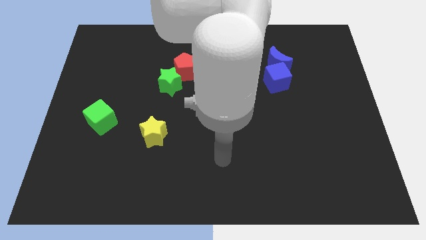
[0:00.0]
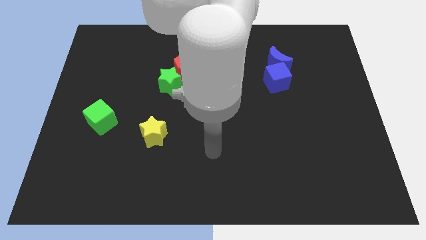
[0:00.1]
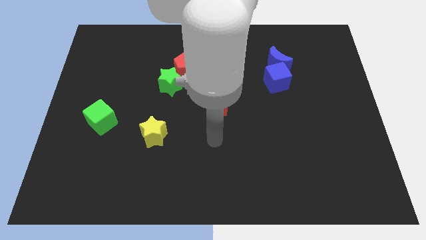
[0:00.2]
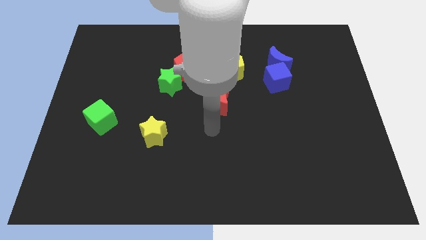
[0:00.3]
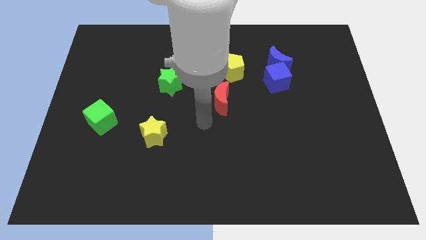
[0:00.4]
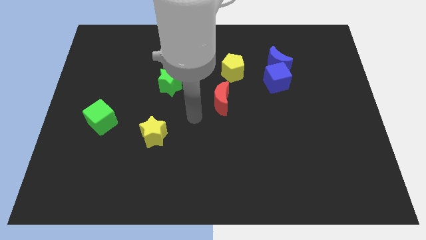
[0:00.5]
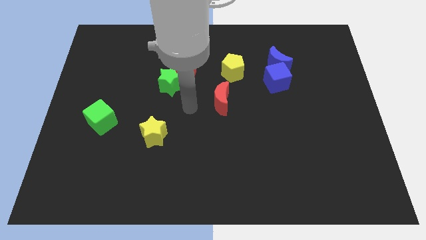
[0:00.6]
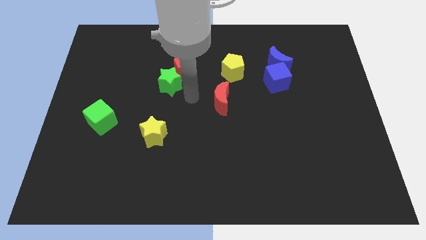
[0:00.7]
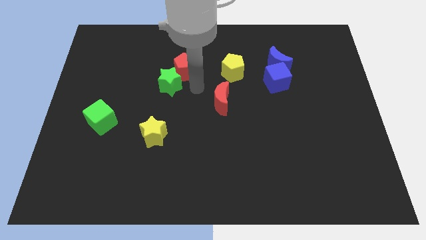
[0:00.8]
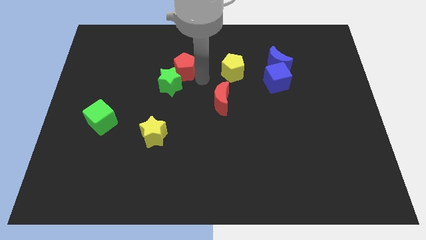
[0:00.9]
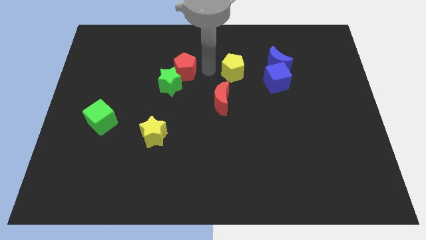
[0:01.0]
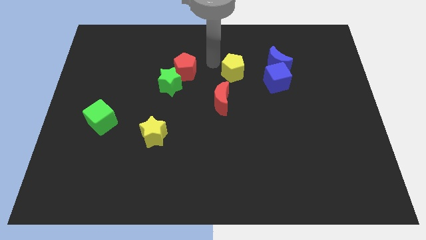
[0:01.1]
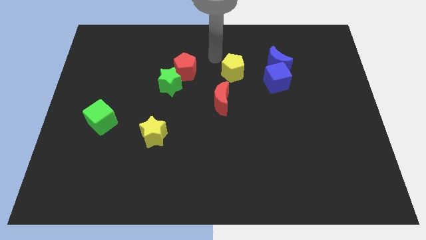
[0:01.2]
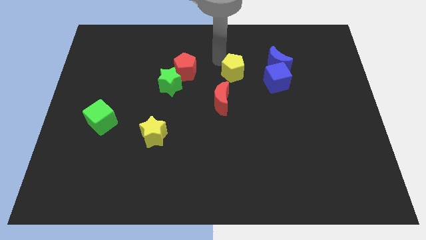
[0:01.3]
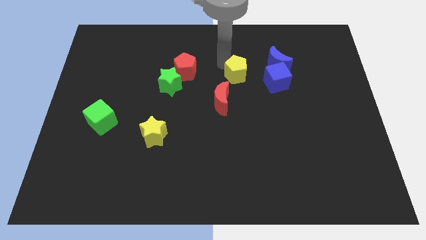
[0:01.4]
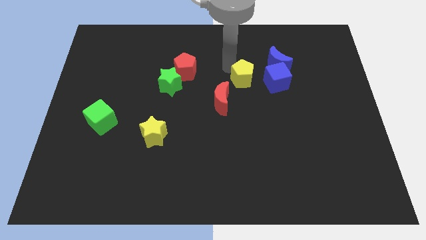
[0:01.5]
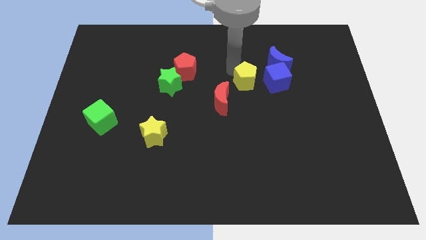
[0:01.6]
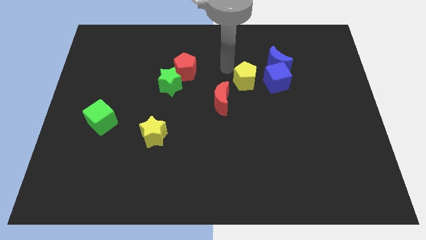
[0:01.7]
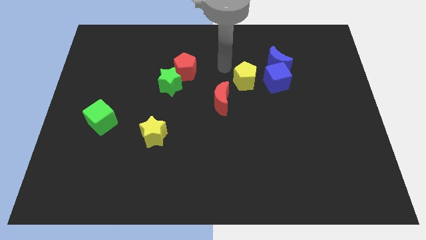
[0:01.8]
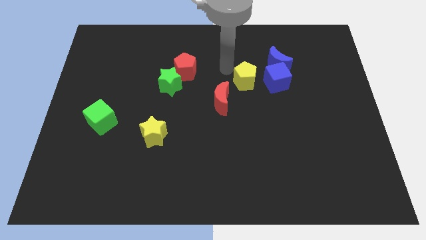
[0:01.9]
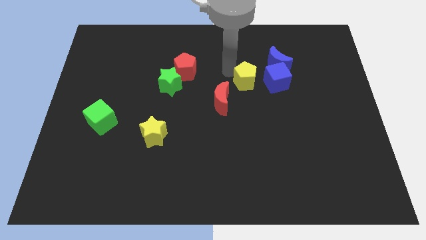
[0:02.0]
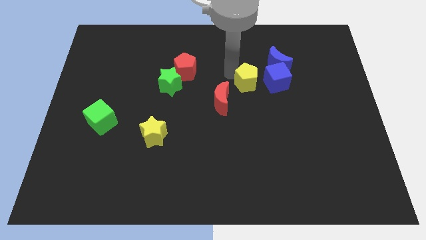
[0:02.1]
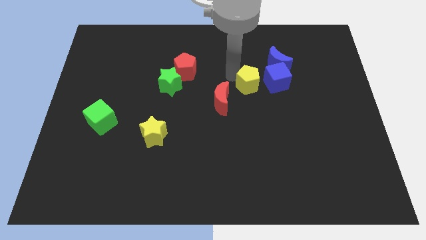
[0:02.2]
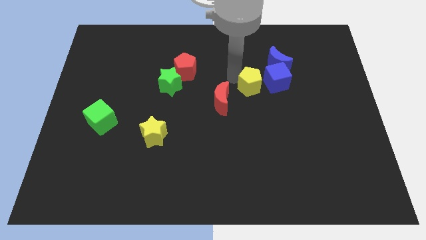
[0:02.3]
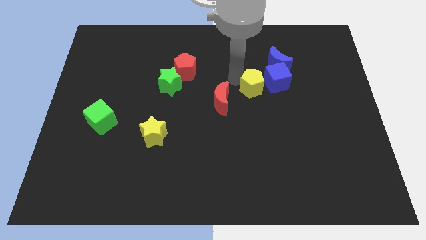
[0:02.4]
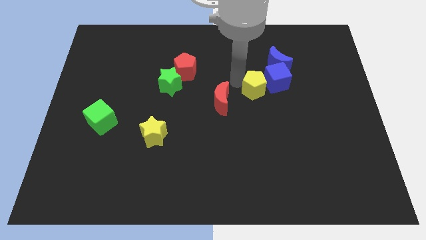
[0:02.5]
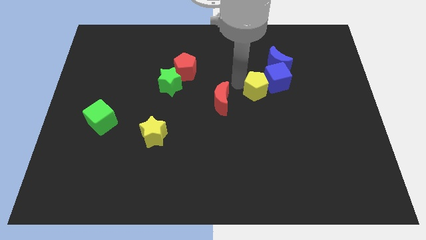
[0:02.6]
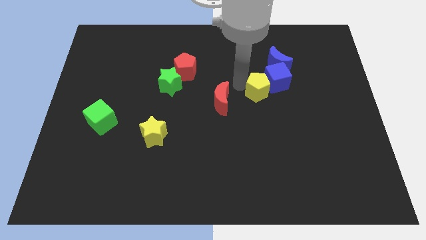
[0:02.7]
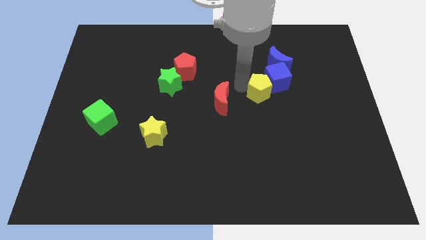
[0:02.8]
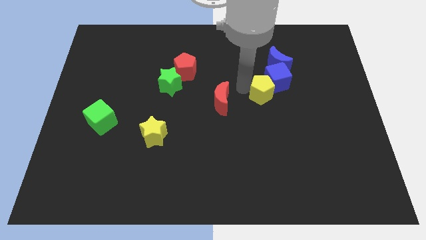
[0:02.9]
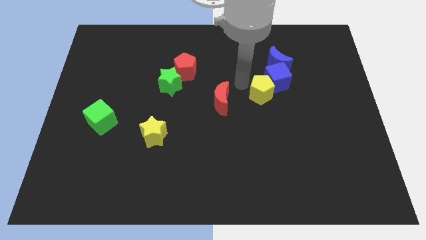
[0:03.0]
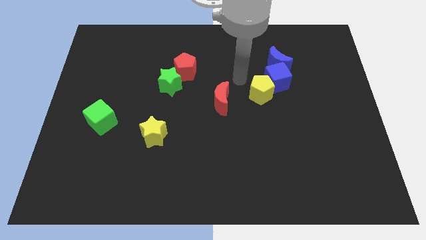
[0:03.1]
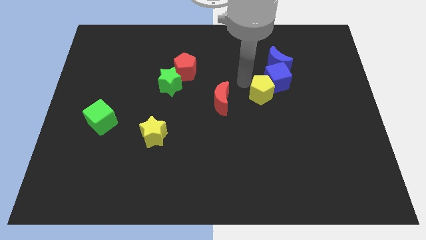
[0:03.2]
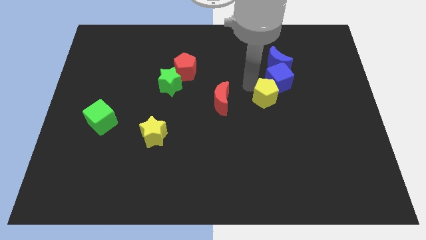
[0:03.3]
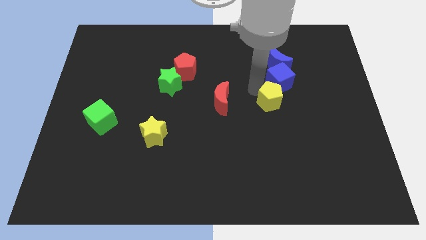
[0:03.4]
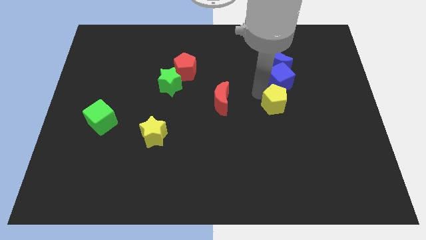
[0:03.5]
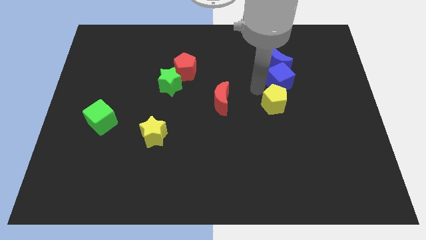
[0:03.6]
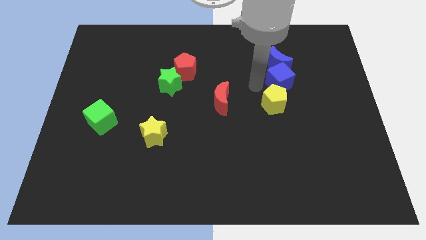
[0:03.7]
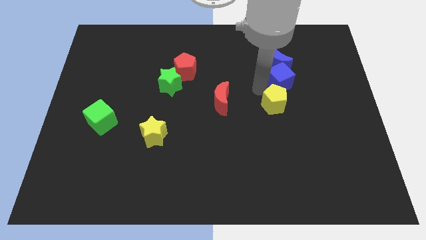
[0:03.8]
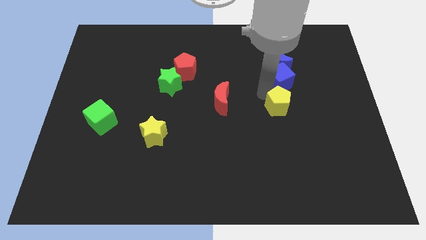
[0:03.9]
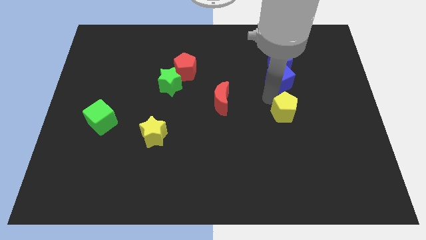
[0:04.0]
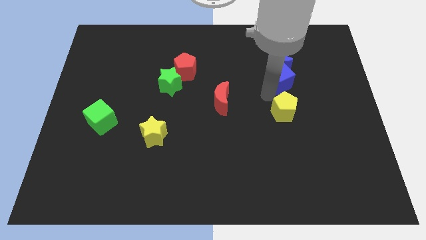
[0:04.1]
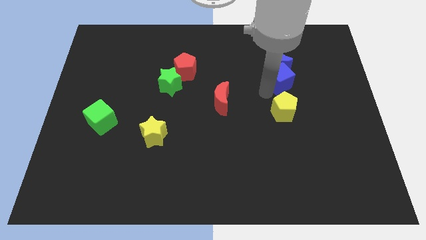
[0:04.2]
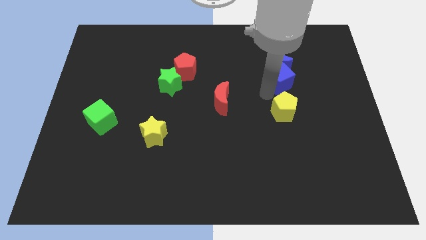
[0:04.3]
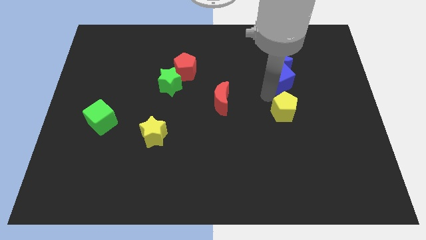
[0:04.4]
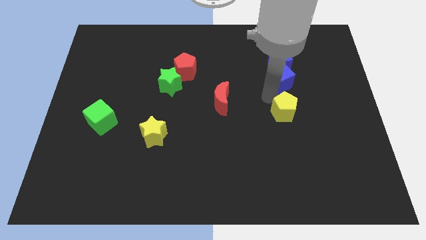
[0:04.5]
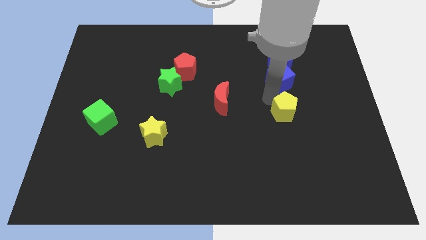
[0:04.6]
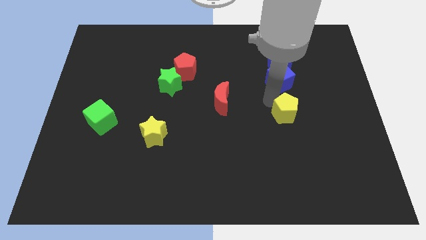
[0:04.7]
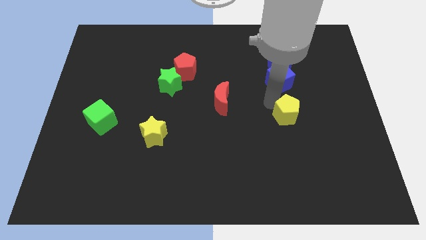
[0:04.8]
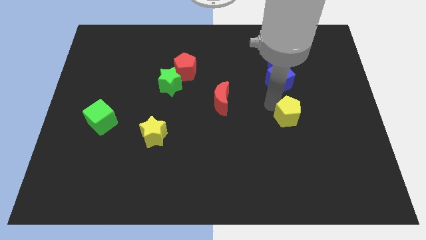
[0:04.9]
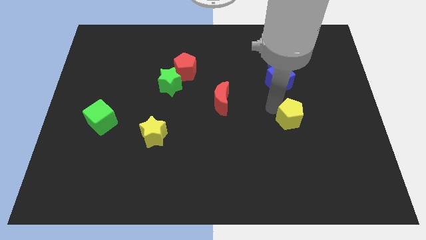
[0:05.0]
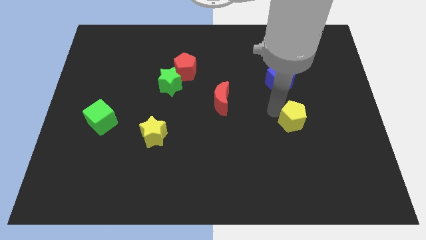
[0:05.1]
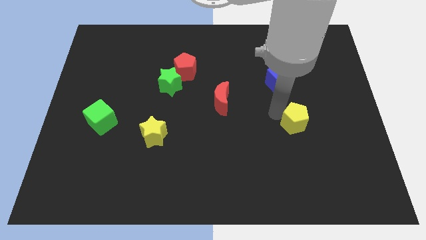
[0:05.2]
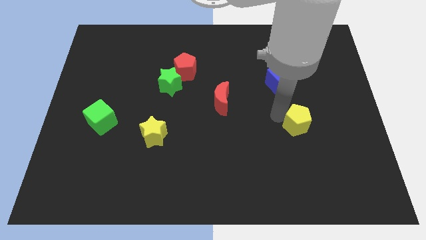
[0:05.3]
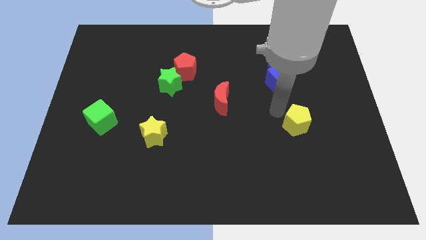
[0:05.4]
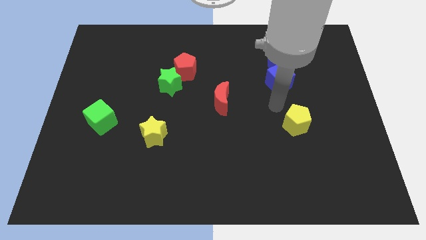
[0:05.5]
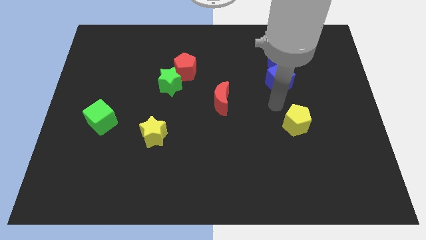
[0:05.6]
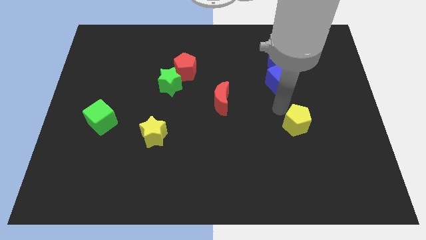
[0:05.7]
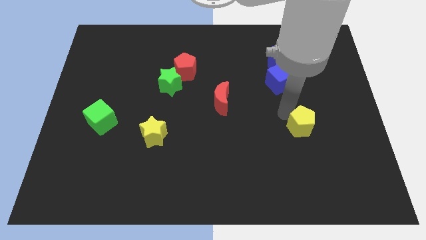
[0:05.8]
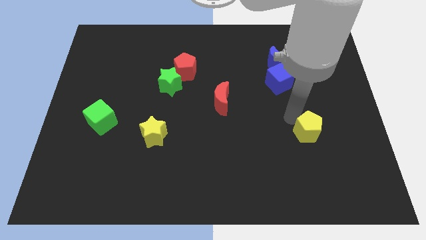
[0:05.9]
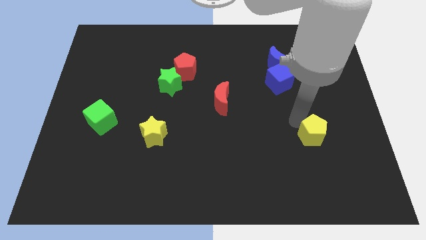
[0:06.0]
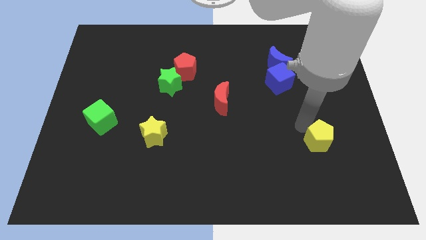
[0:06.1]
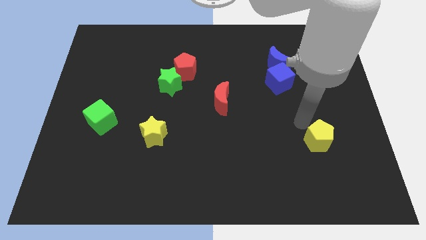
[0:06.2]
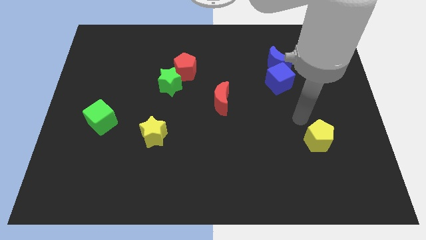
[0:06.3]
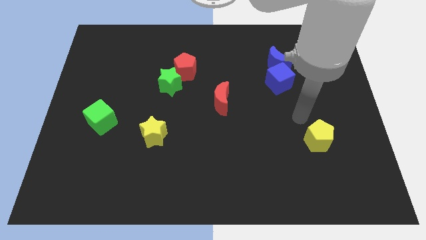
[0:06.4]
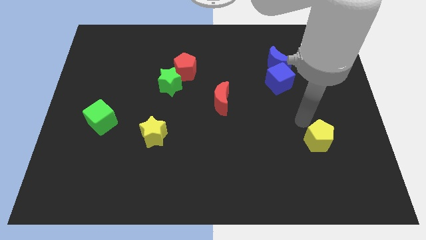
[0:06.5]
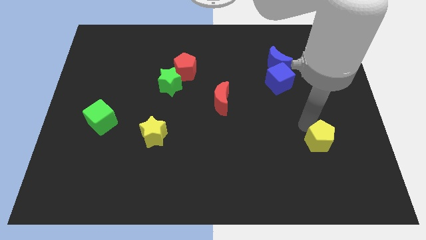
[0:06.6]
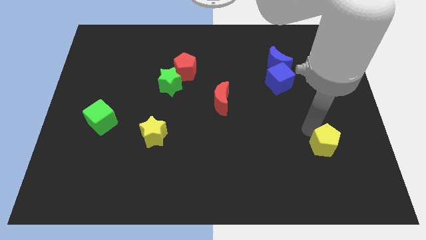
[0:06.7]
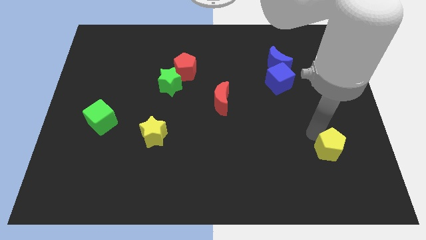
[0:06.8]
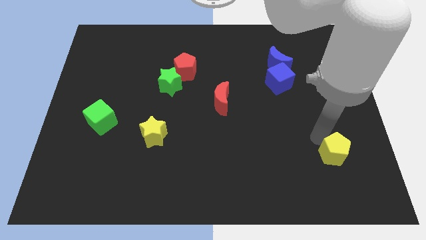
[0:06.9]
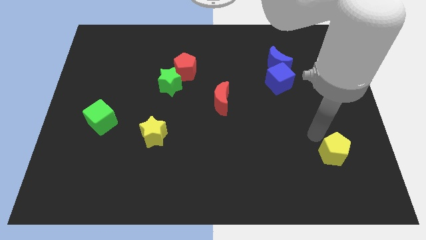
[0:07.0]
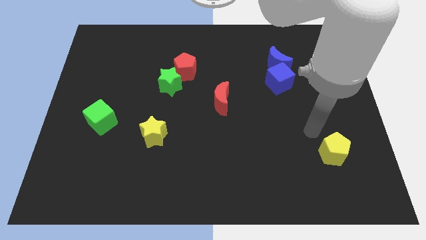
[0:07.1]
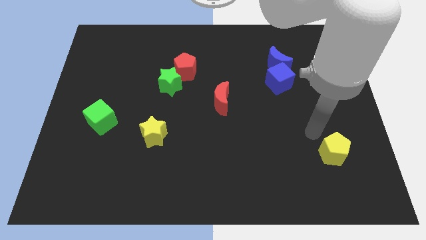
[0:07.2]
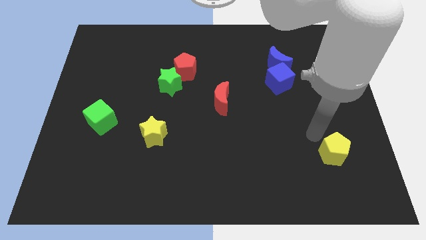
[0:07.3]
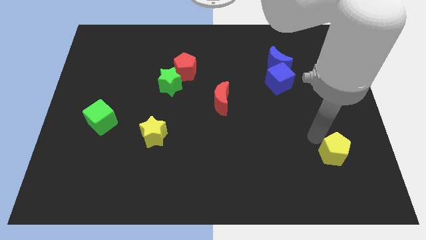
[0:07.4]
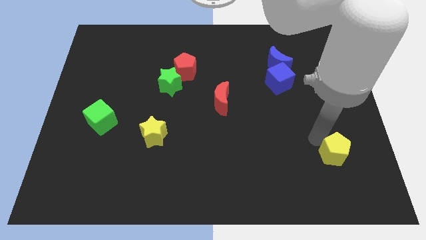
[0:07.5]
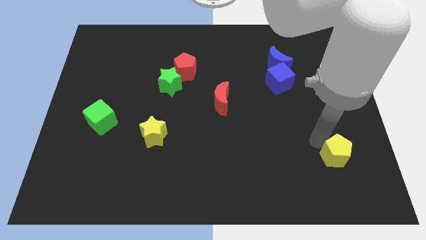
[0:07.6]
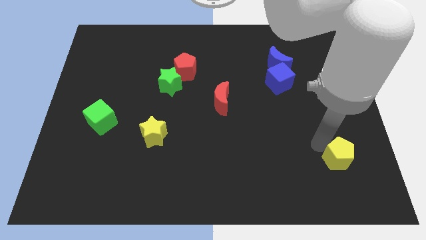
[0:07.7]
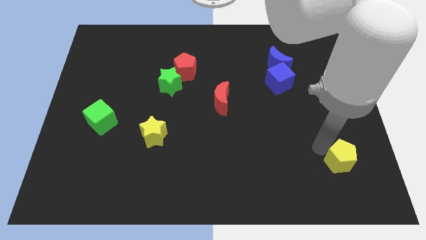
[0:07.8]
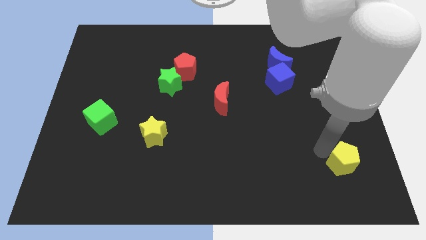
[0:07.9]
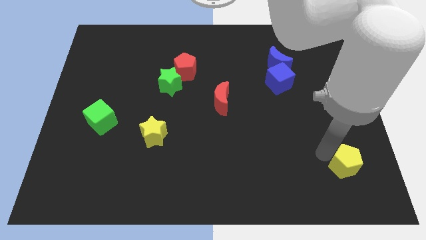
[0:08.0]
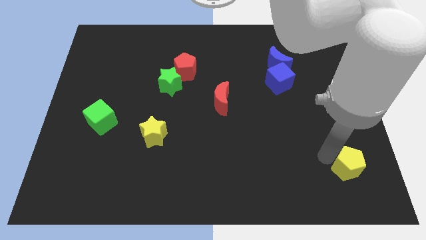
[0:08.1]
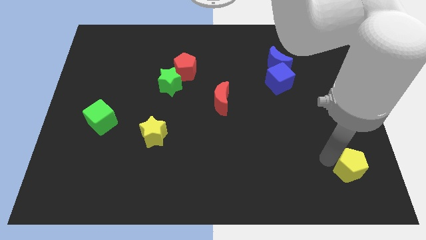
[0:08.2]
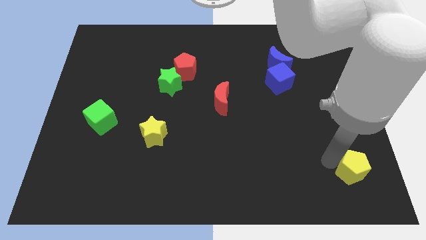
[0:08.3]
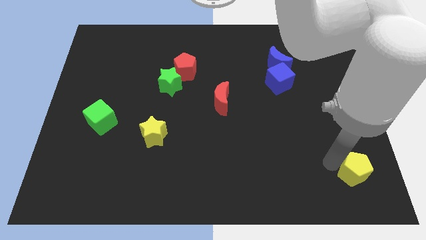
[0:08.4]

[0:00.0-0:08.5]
move the yellow pentagon to the bottom right of the board
